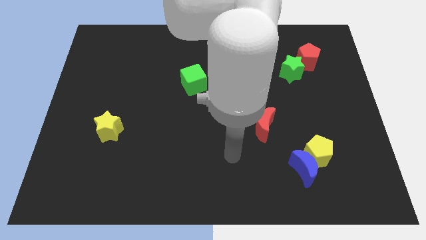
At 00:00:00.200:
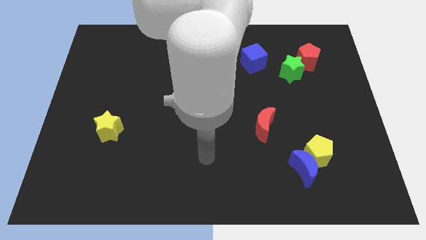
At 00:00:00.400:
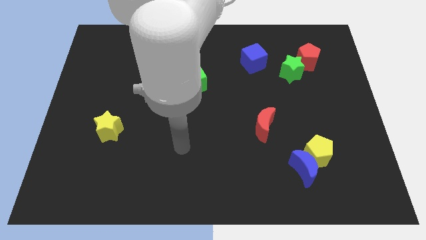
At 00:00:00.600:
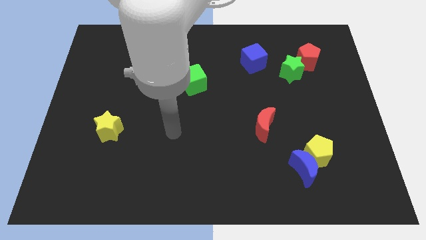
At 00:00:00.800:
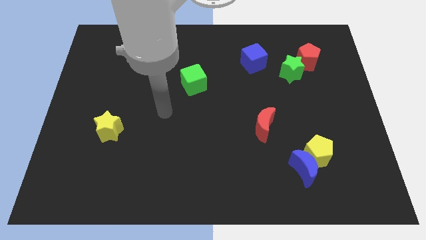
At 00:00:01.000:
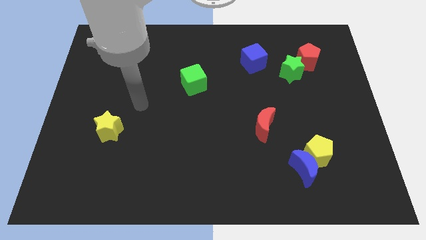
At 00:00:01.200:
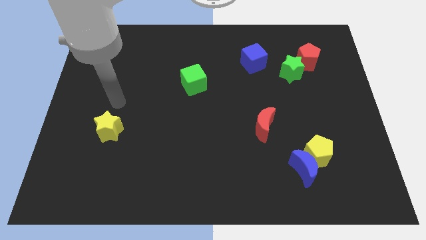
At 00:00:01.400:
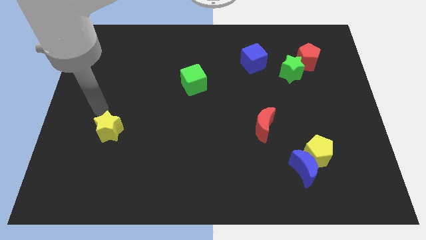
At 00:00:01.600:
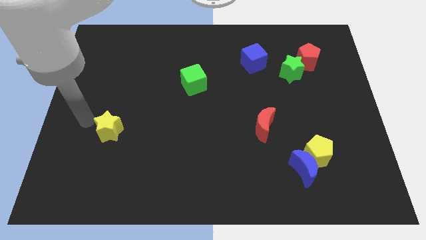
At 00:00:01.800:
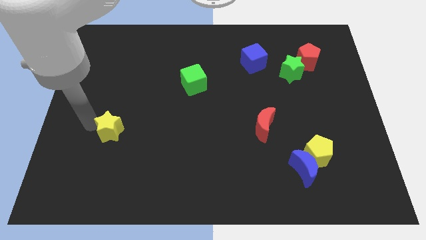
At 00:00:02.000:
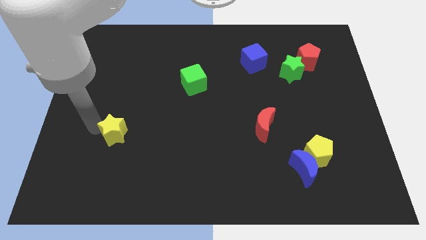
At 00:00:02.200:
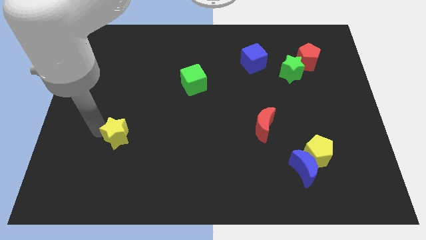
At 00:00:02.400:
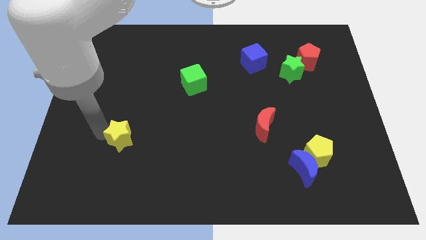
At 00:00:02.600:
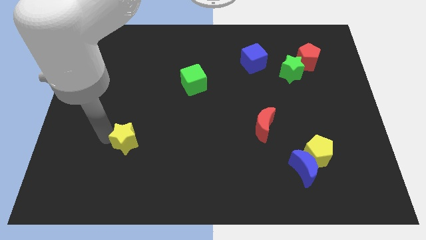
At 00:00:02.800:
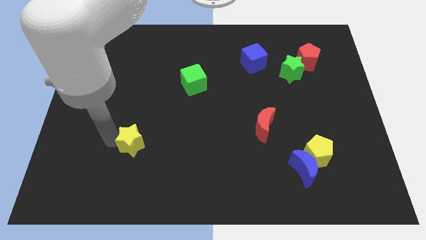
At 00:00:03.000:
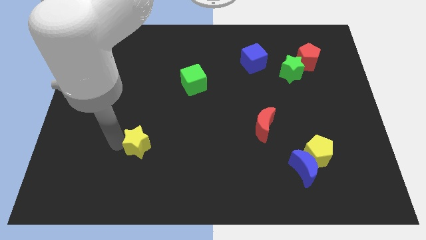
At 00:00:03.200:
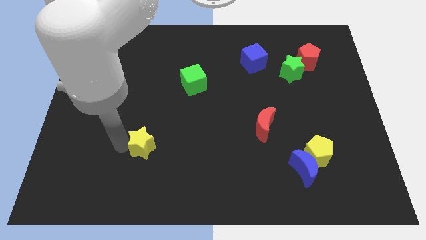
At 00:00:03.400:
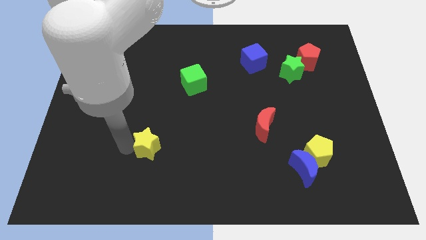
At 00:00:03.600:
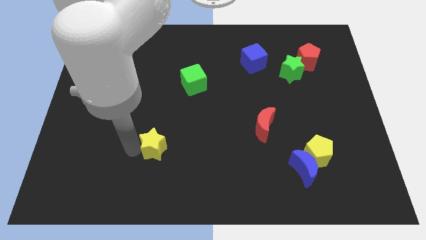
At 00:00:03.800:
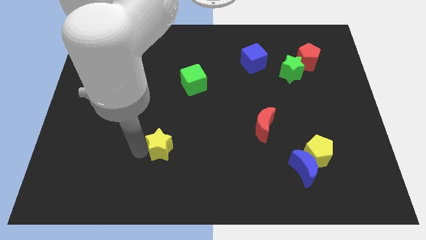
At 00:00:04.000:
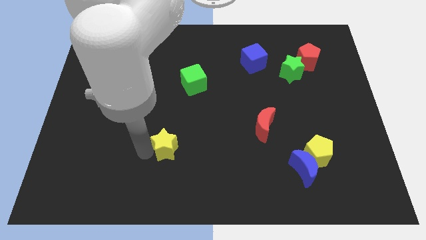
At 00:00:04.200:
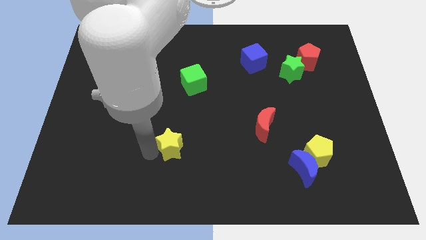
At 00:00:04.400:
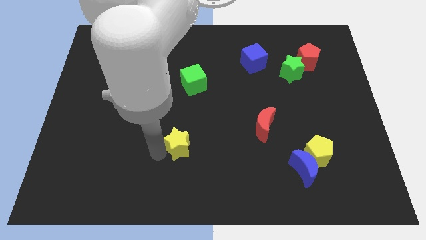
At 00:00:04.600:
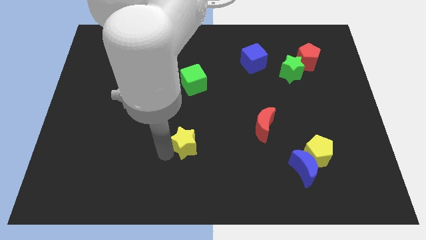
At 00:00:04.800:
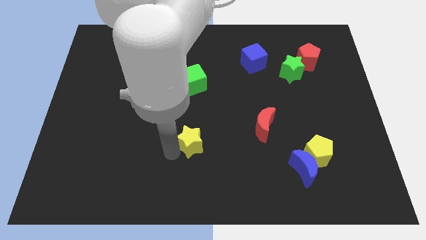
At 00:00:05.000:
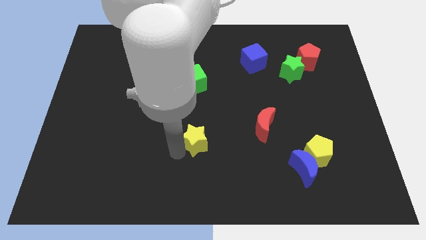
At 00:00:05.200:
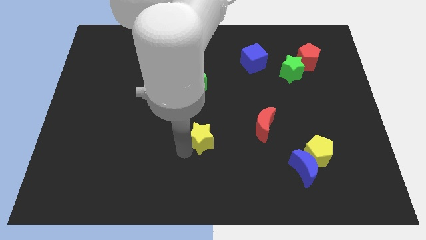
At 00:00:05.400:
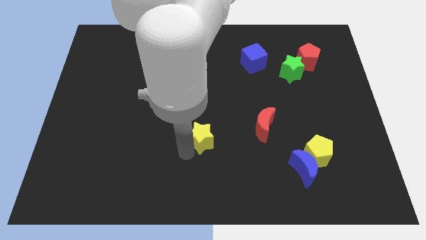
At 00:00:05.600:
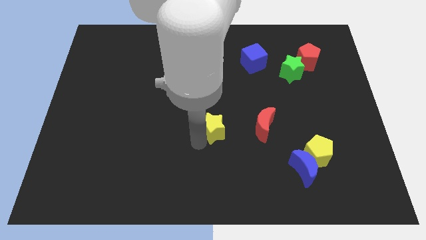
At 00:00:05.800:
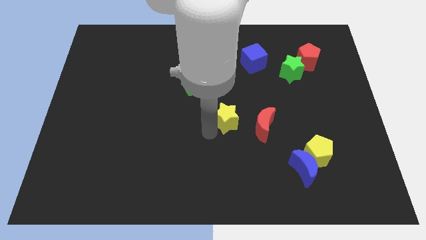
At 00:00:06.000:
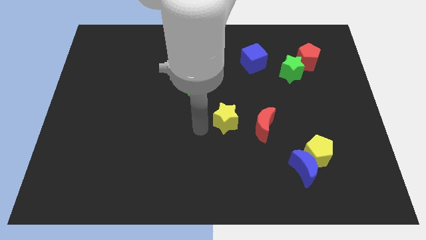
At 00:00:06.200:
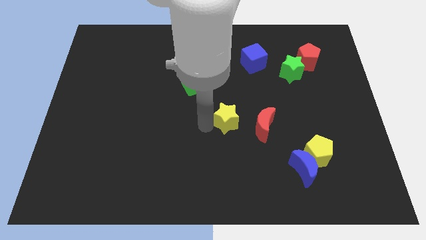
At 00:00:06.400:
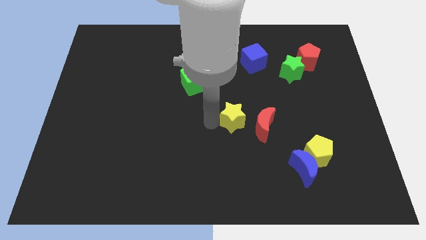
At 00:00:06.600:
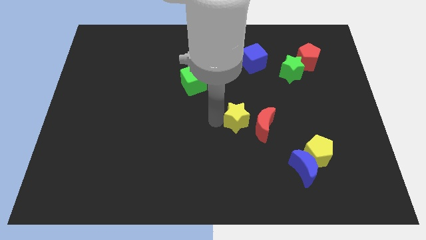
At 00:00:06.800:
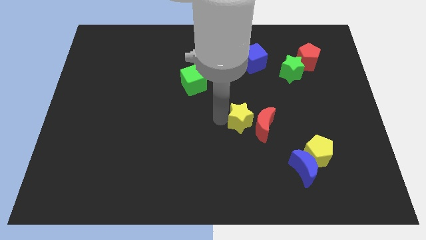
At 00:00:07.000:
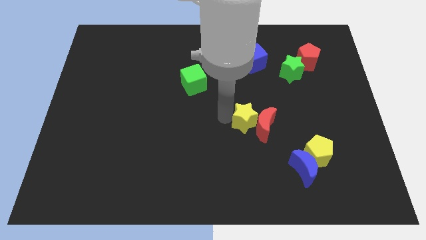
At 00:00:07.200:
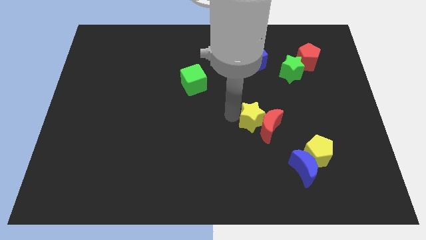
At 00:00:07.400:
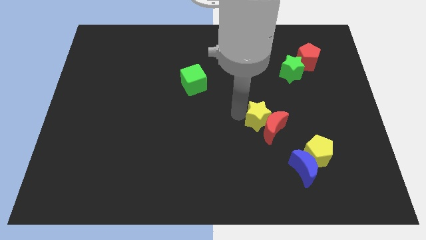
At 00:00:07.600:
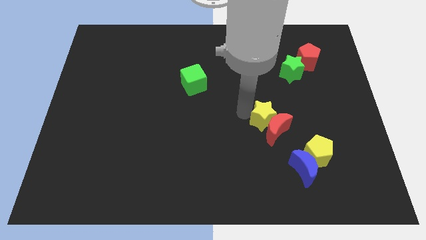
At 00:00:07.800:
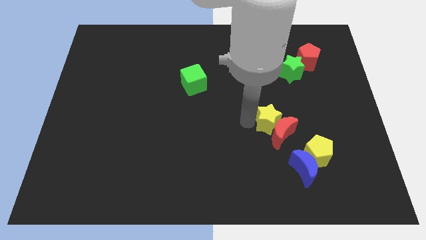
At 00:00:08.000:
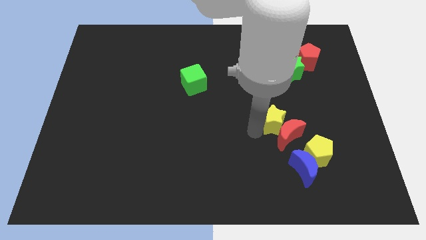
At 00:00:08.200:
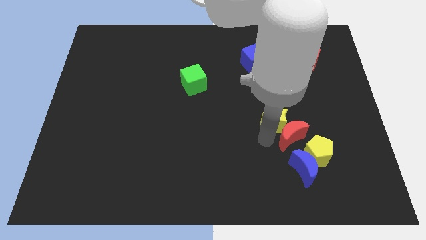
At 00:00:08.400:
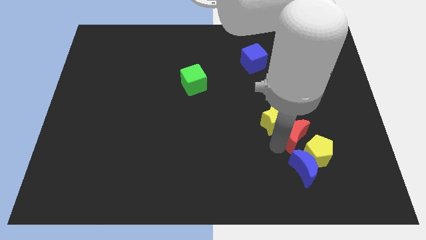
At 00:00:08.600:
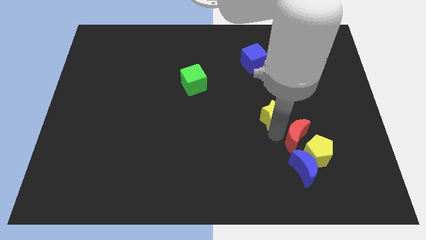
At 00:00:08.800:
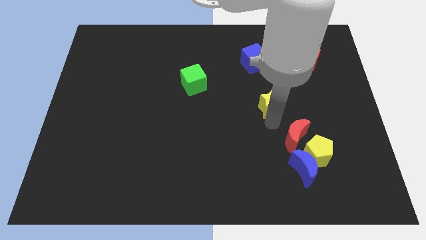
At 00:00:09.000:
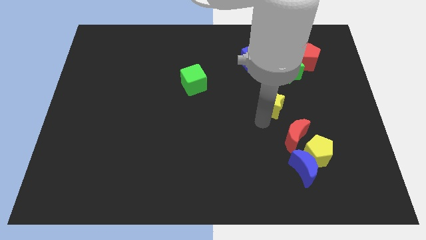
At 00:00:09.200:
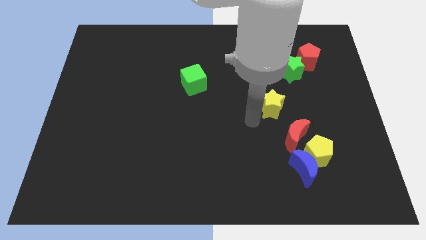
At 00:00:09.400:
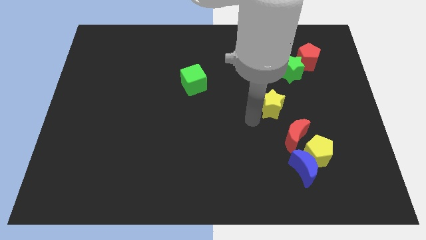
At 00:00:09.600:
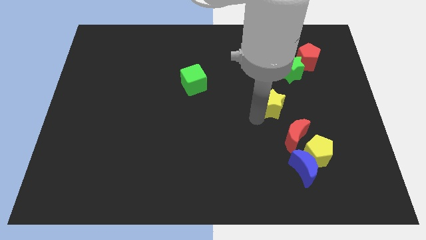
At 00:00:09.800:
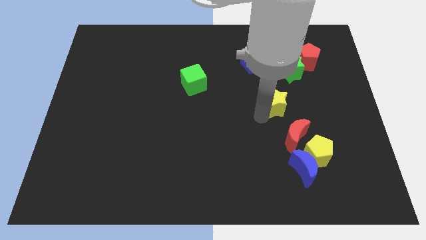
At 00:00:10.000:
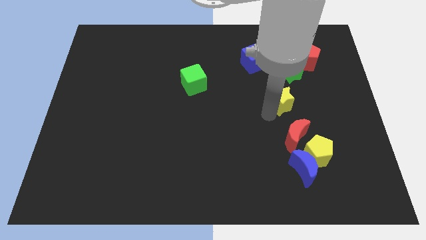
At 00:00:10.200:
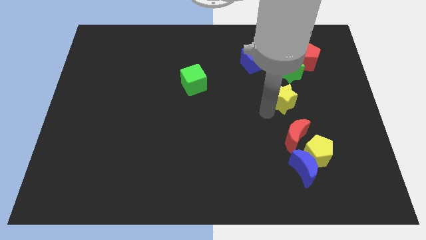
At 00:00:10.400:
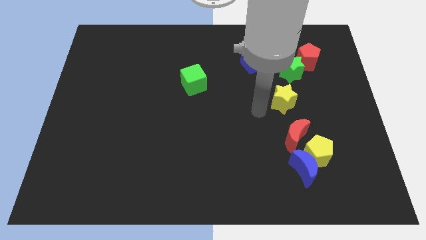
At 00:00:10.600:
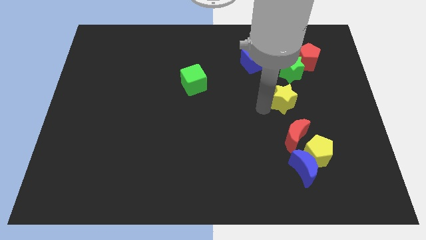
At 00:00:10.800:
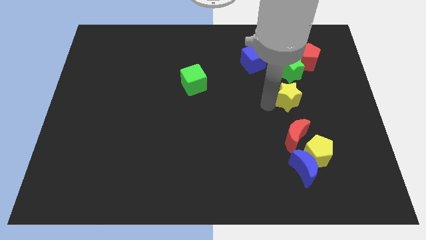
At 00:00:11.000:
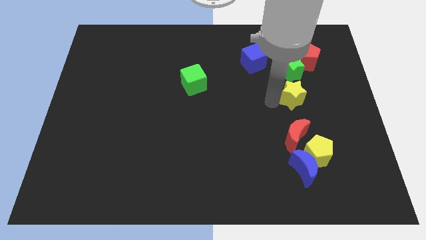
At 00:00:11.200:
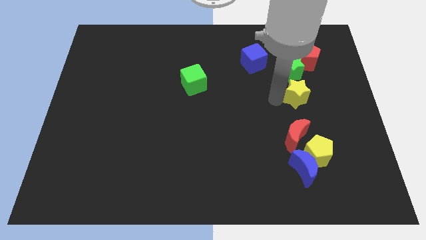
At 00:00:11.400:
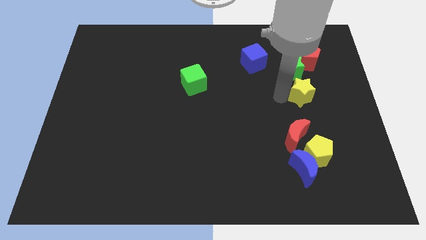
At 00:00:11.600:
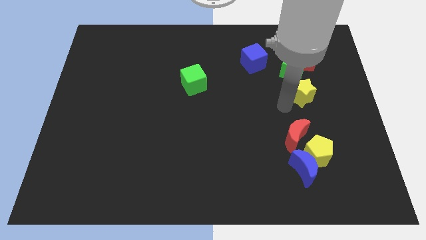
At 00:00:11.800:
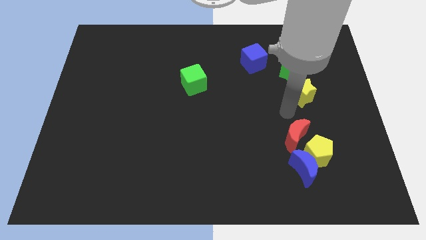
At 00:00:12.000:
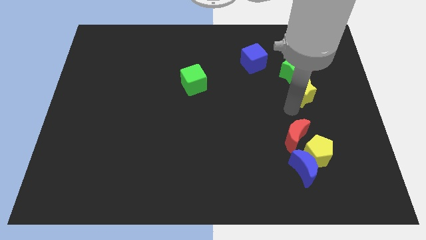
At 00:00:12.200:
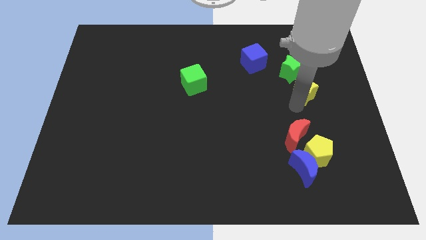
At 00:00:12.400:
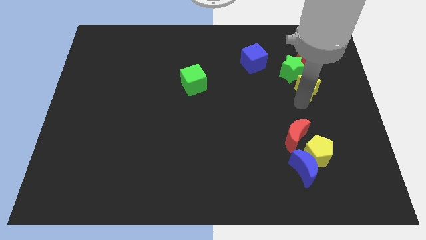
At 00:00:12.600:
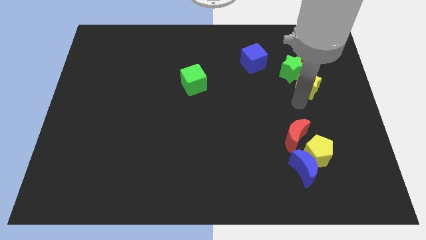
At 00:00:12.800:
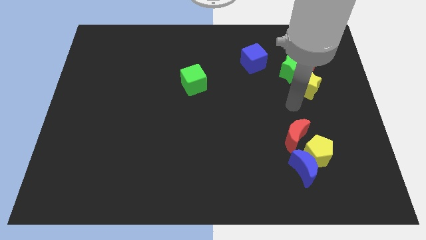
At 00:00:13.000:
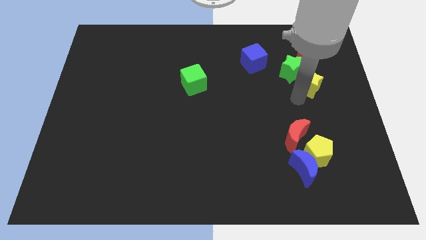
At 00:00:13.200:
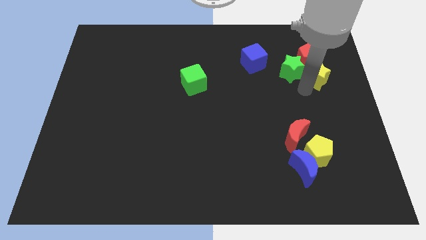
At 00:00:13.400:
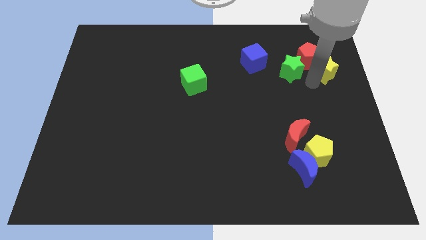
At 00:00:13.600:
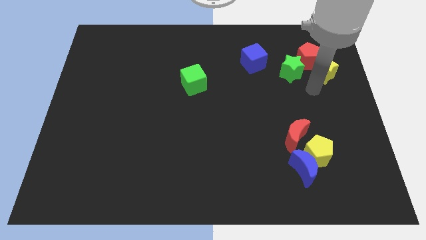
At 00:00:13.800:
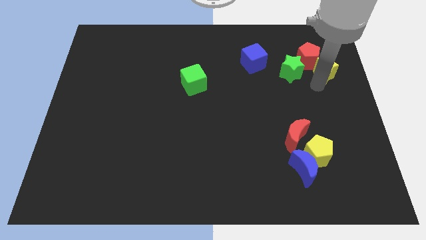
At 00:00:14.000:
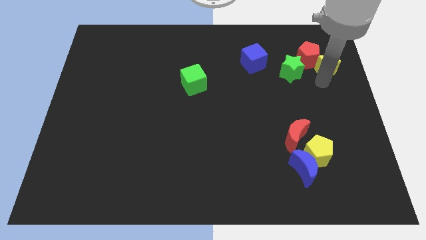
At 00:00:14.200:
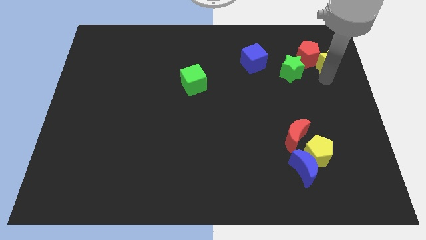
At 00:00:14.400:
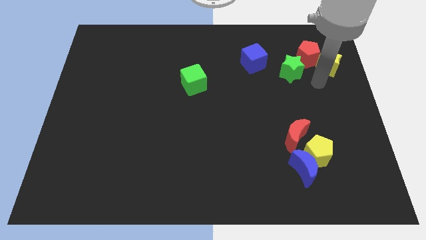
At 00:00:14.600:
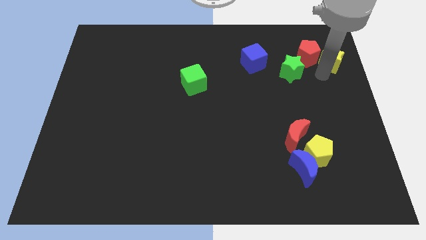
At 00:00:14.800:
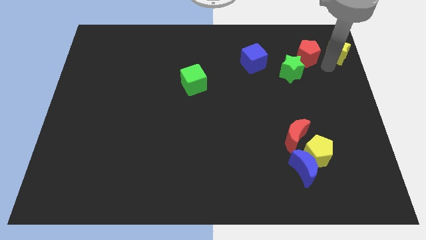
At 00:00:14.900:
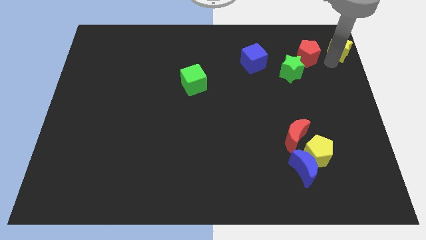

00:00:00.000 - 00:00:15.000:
move the yellow star to the top right of the board
